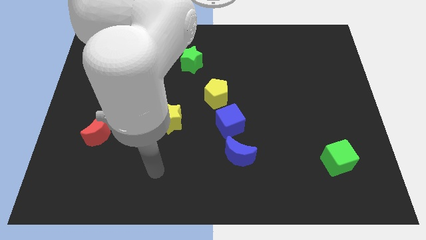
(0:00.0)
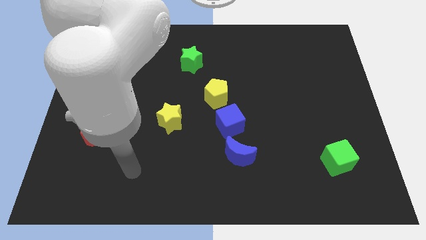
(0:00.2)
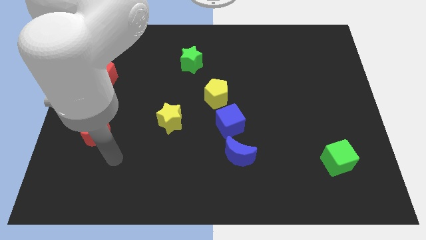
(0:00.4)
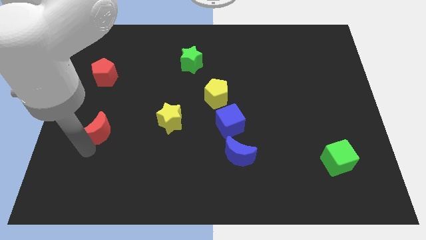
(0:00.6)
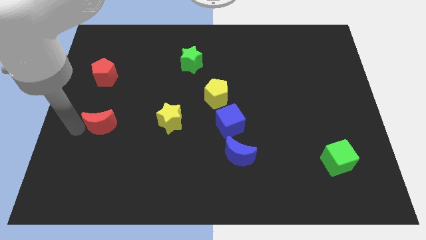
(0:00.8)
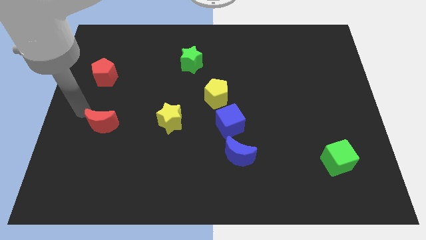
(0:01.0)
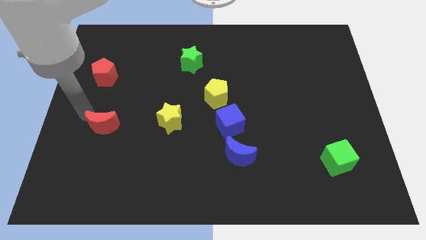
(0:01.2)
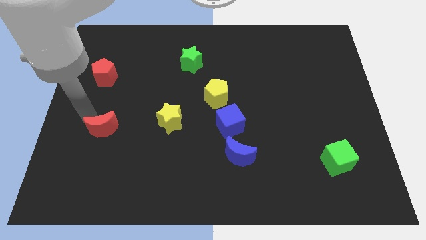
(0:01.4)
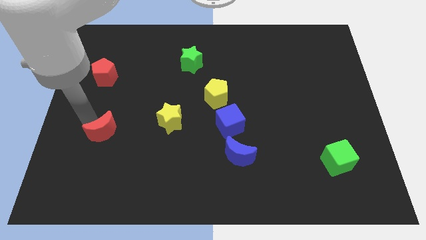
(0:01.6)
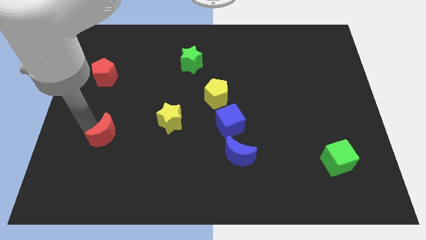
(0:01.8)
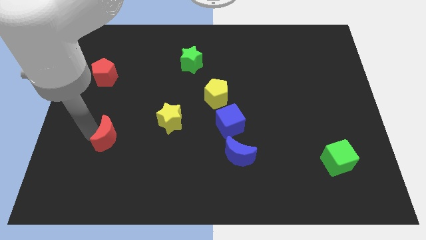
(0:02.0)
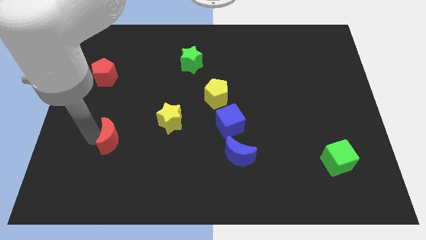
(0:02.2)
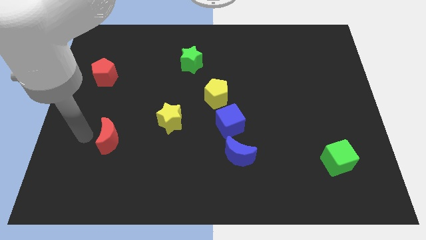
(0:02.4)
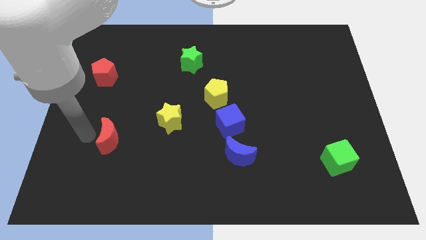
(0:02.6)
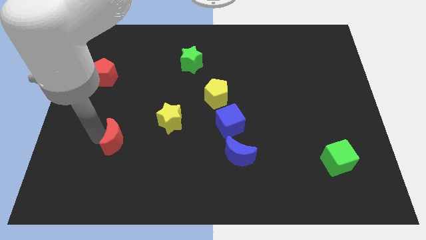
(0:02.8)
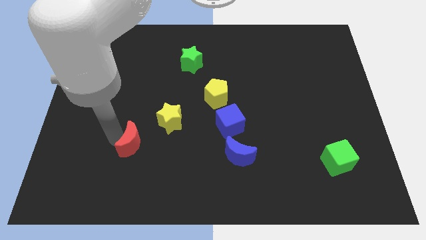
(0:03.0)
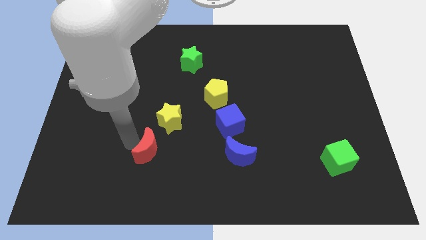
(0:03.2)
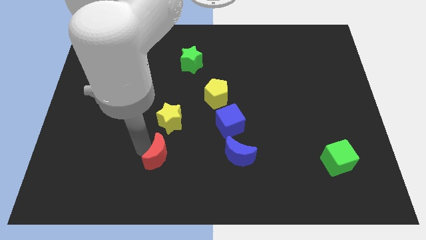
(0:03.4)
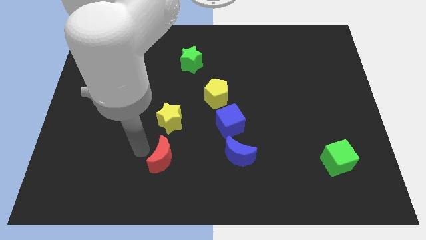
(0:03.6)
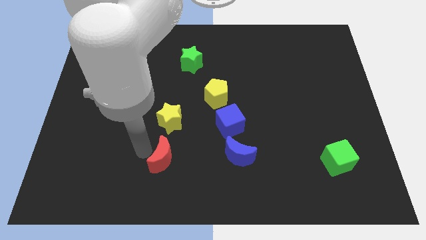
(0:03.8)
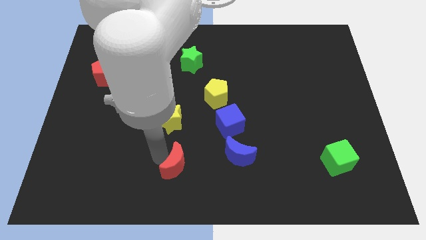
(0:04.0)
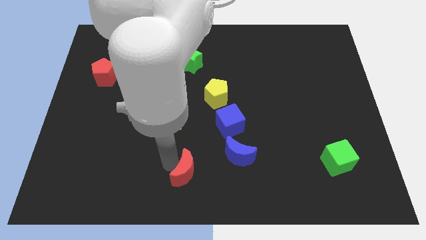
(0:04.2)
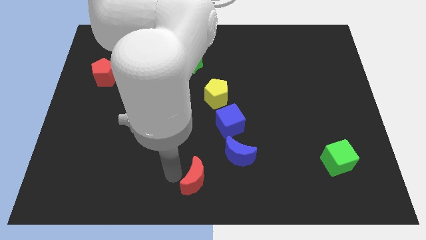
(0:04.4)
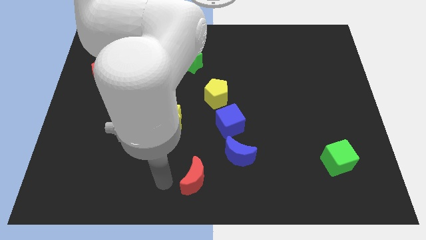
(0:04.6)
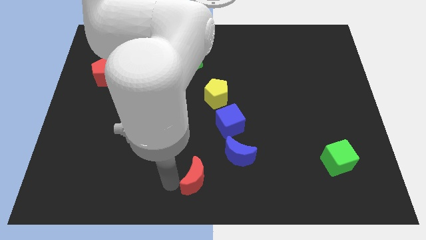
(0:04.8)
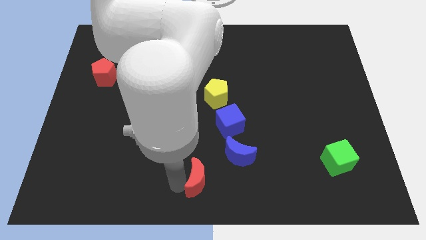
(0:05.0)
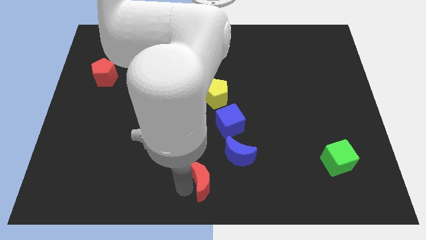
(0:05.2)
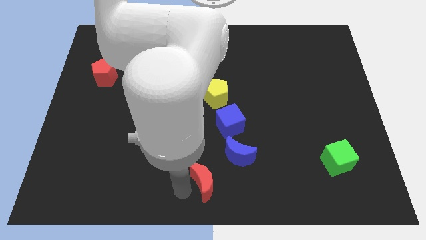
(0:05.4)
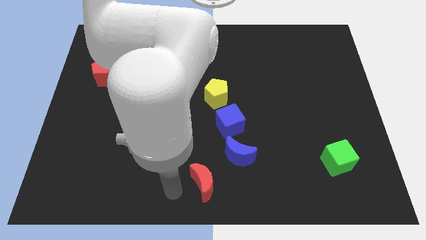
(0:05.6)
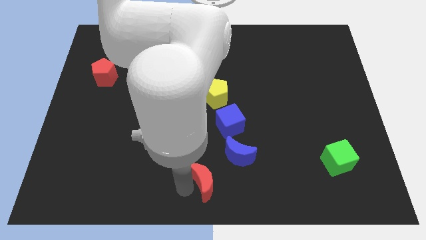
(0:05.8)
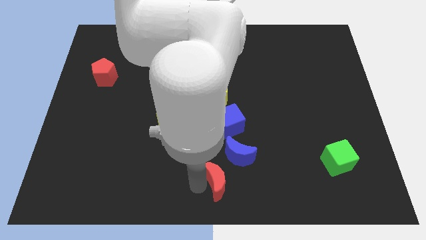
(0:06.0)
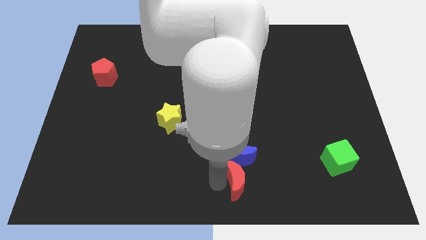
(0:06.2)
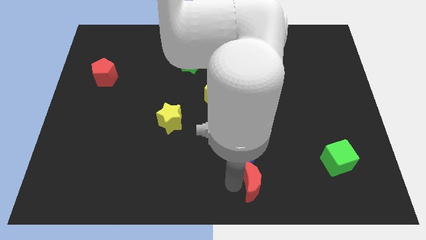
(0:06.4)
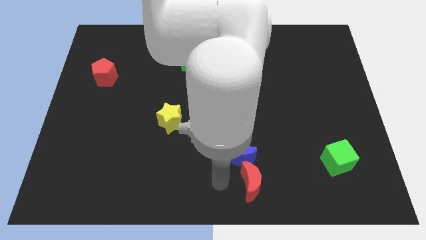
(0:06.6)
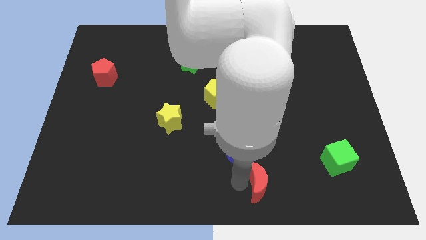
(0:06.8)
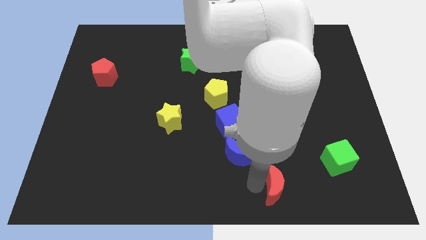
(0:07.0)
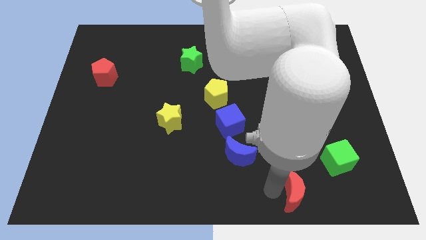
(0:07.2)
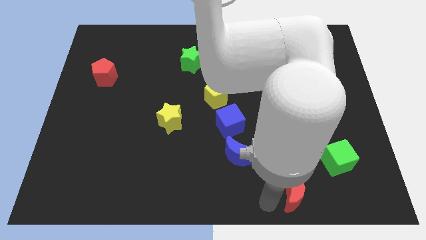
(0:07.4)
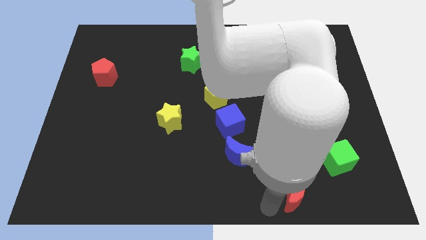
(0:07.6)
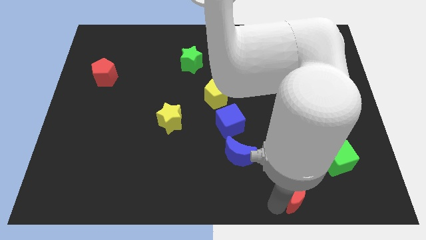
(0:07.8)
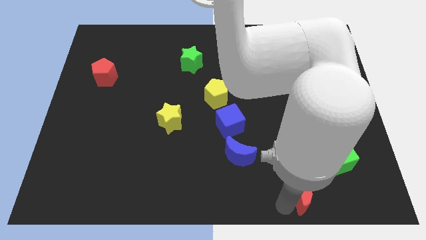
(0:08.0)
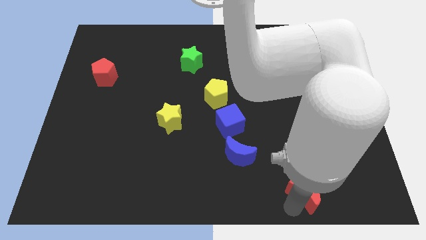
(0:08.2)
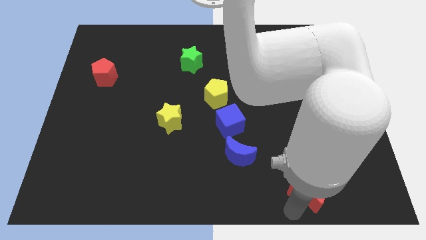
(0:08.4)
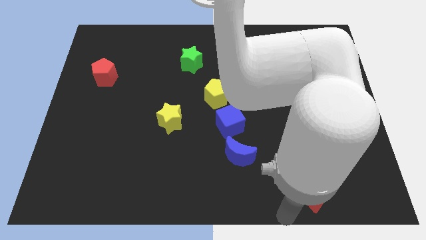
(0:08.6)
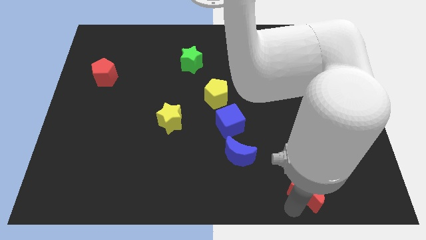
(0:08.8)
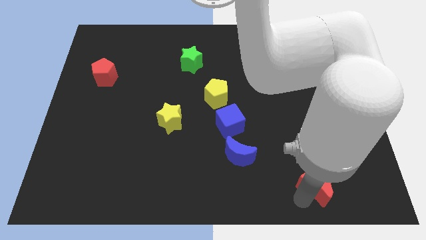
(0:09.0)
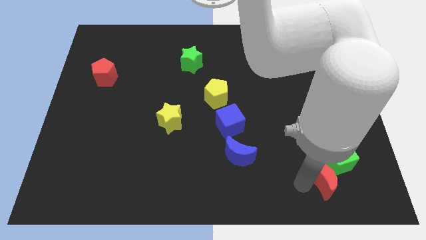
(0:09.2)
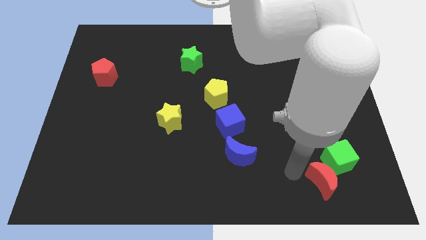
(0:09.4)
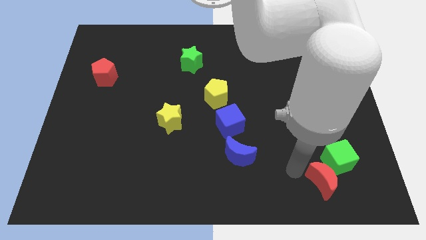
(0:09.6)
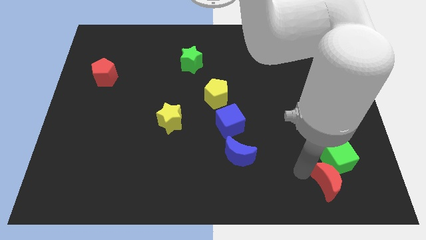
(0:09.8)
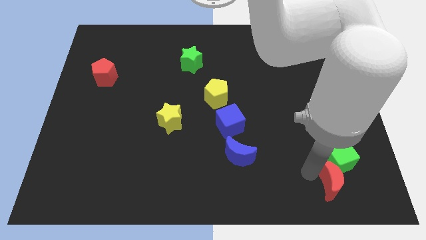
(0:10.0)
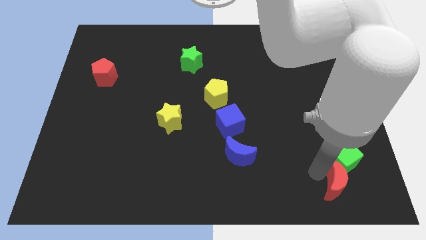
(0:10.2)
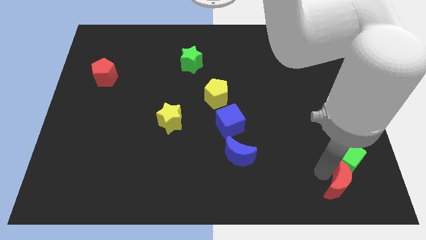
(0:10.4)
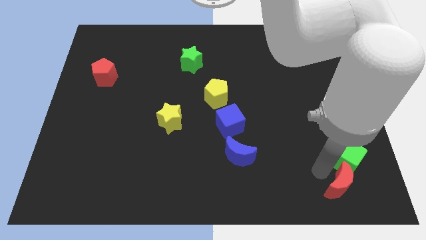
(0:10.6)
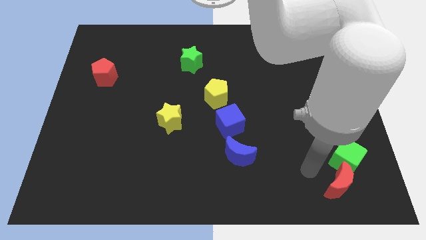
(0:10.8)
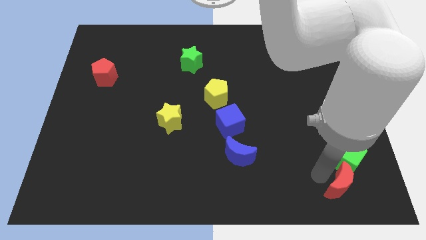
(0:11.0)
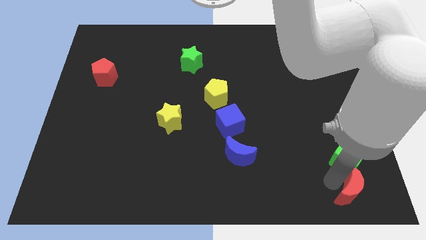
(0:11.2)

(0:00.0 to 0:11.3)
move the red moon to the bottom right of the board

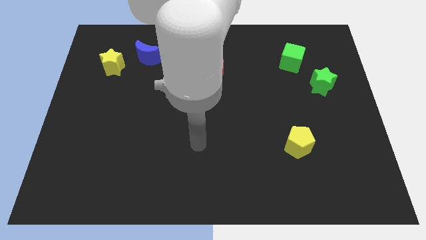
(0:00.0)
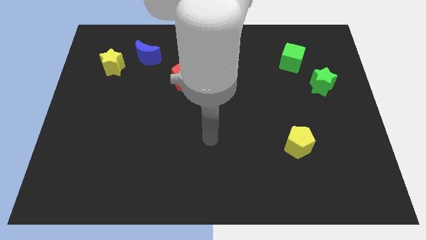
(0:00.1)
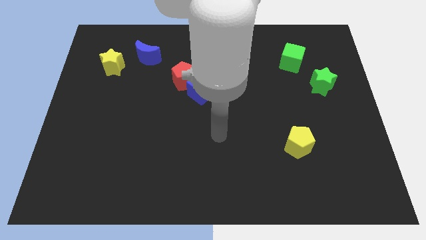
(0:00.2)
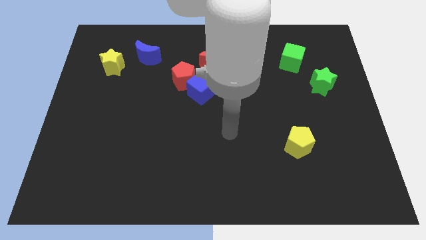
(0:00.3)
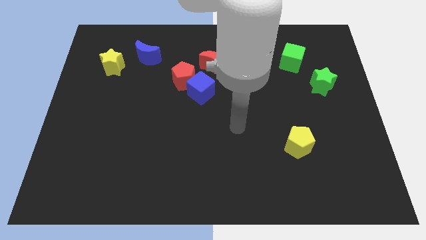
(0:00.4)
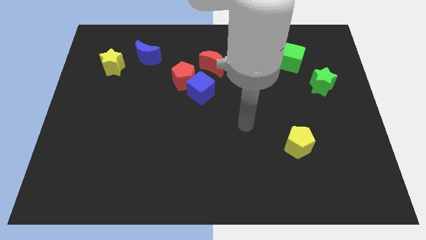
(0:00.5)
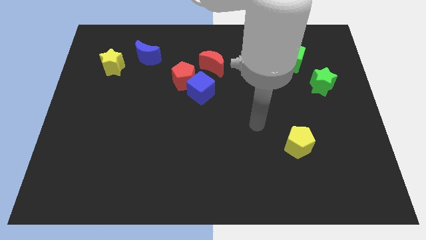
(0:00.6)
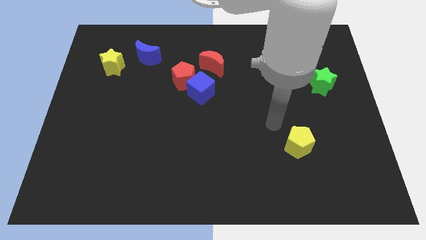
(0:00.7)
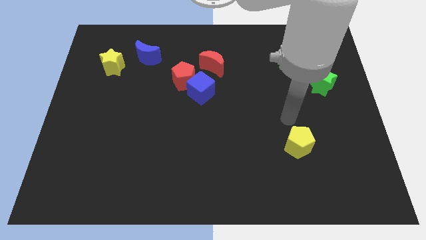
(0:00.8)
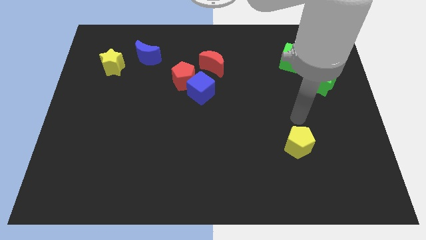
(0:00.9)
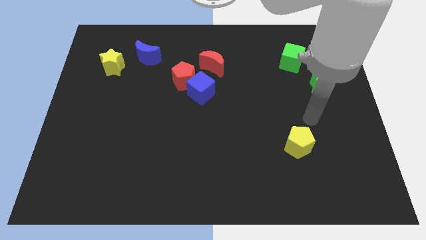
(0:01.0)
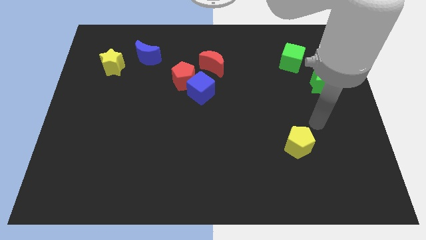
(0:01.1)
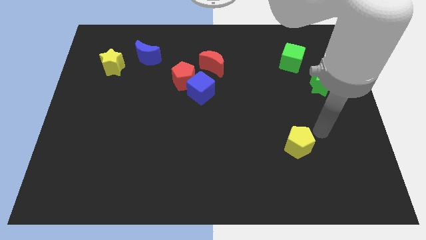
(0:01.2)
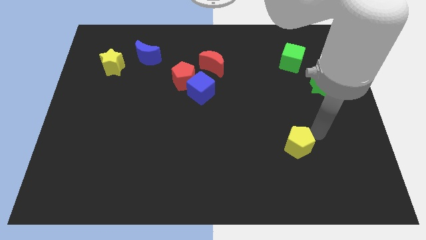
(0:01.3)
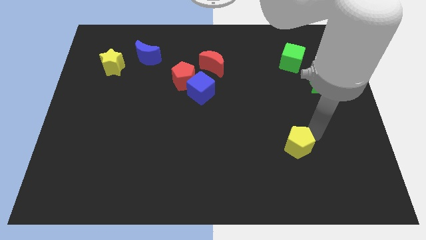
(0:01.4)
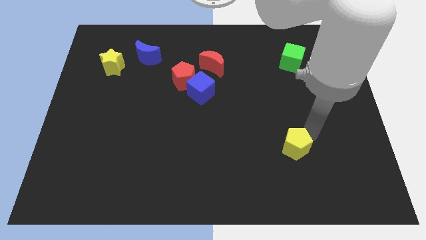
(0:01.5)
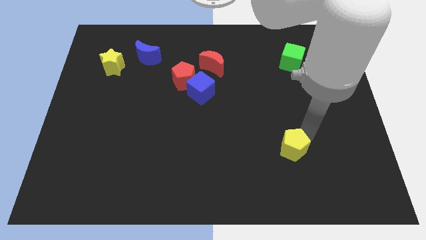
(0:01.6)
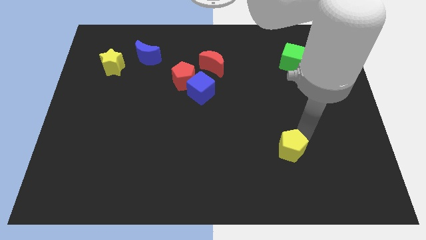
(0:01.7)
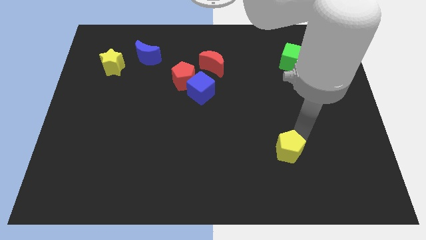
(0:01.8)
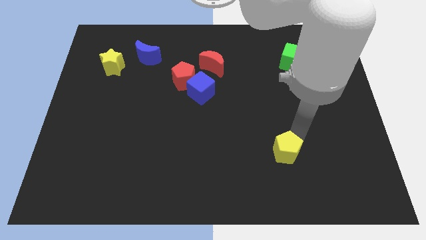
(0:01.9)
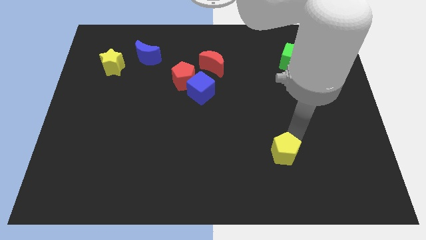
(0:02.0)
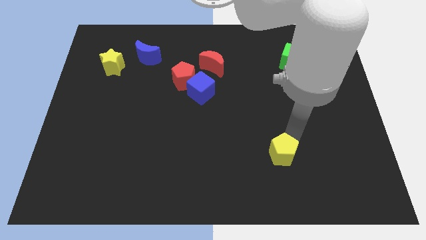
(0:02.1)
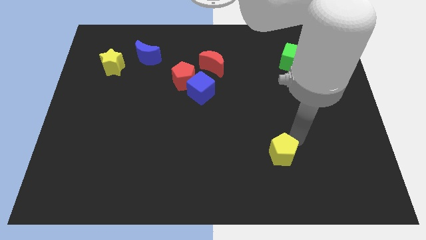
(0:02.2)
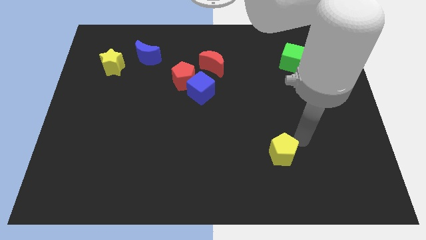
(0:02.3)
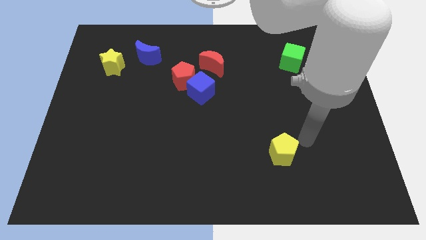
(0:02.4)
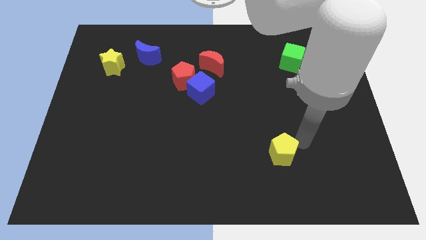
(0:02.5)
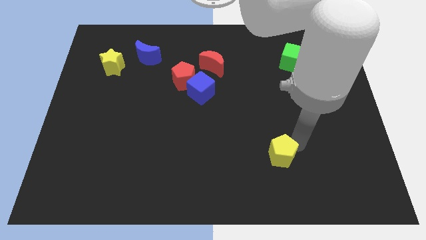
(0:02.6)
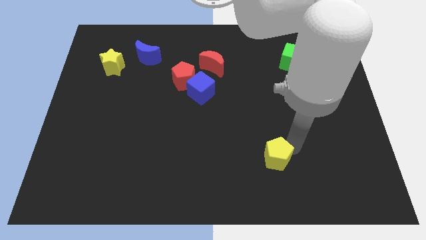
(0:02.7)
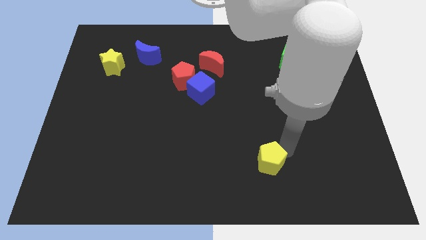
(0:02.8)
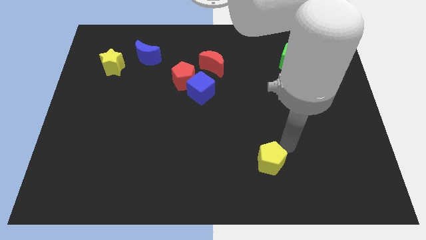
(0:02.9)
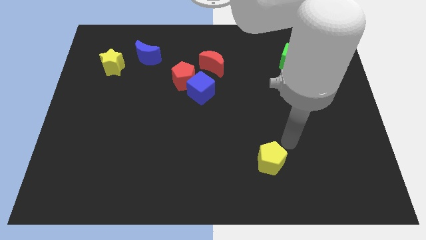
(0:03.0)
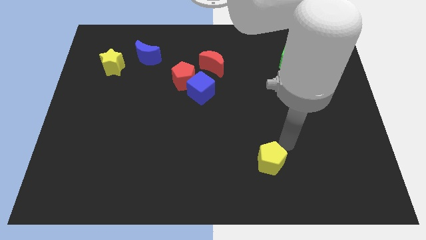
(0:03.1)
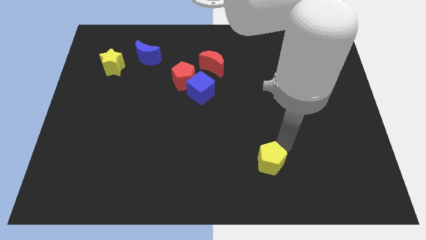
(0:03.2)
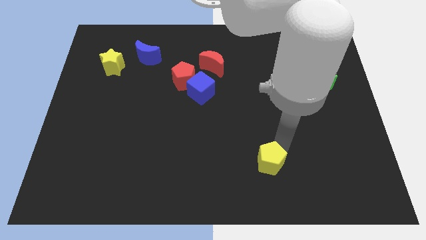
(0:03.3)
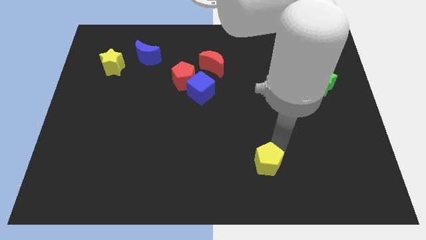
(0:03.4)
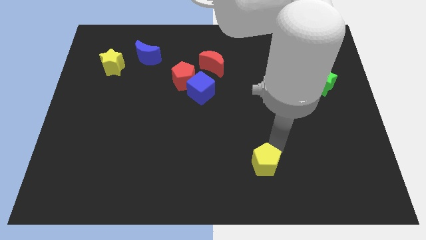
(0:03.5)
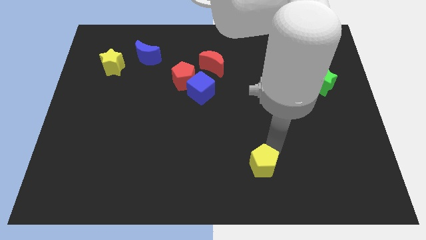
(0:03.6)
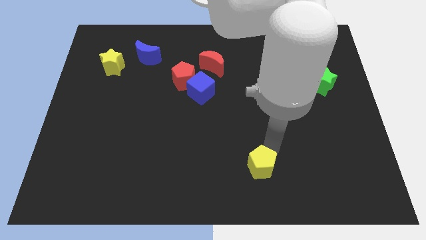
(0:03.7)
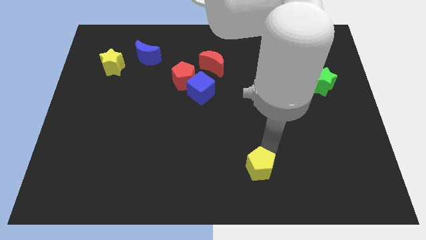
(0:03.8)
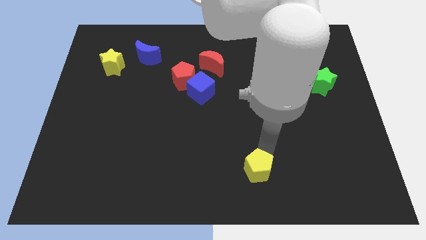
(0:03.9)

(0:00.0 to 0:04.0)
put the yellow pentagon to the bottom
